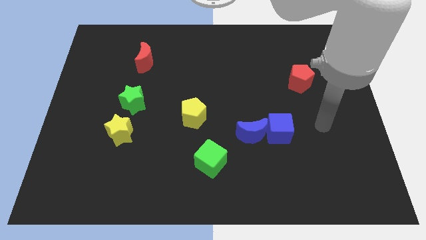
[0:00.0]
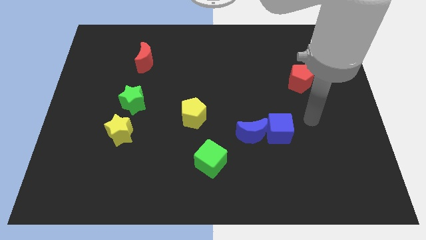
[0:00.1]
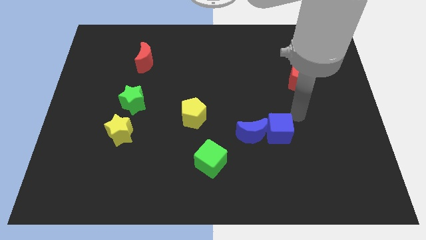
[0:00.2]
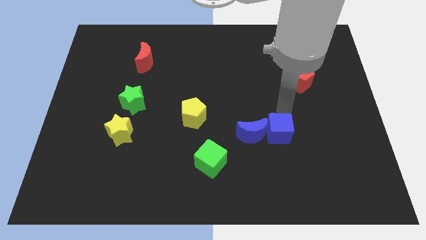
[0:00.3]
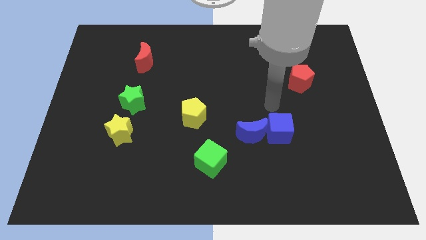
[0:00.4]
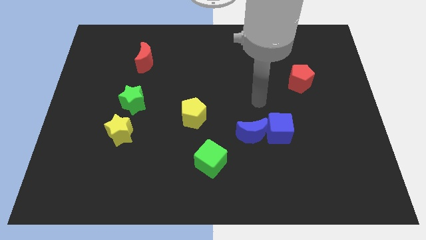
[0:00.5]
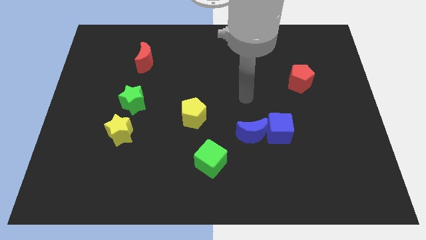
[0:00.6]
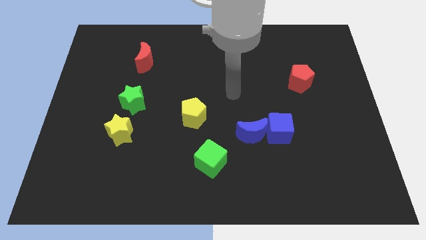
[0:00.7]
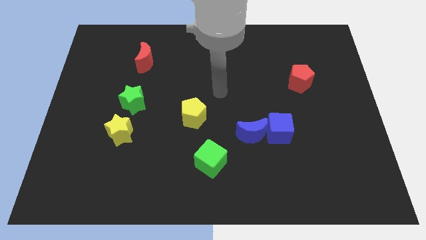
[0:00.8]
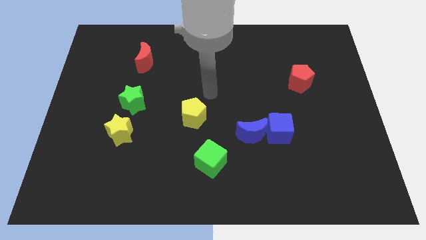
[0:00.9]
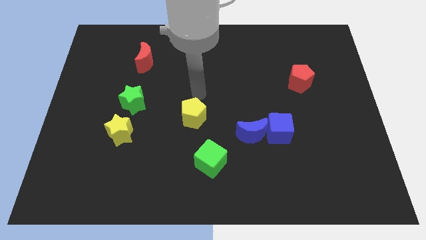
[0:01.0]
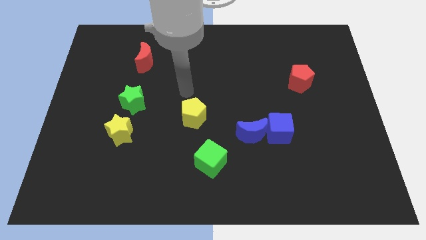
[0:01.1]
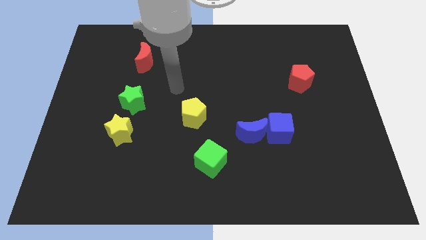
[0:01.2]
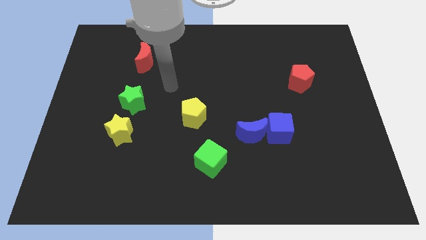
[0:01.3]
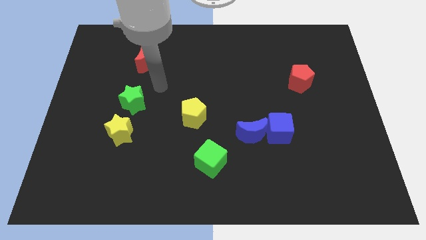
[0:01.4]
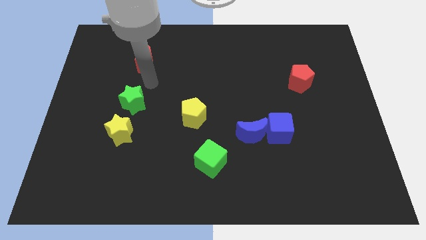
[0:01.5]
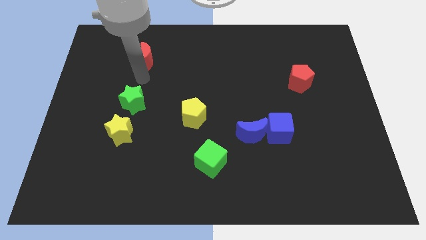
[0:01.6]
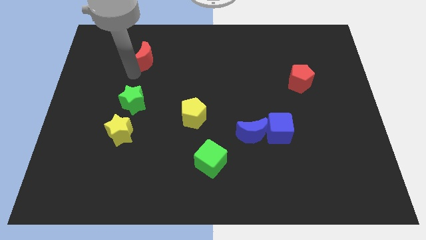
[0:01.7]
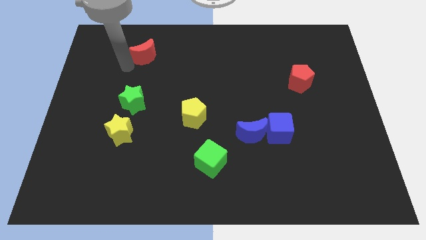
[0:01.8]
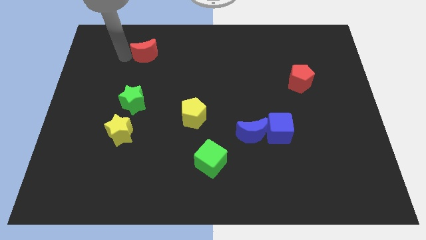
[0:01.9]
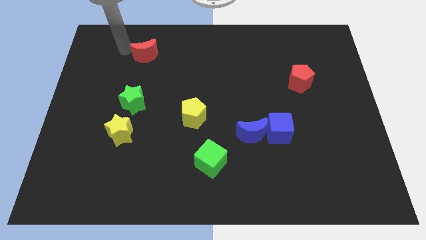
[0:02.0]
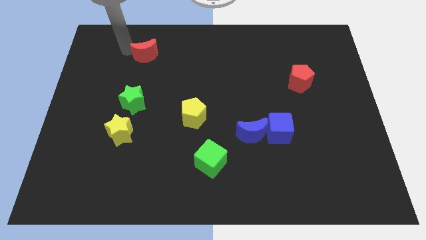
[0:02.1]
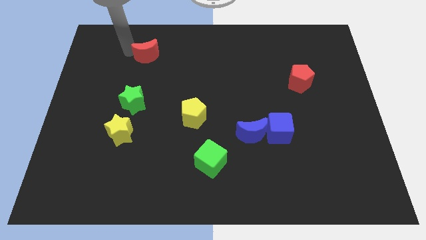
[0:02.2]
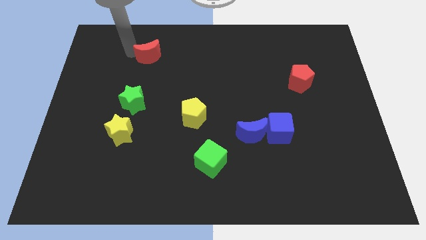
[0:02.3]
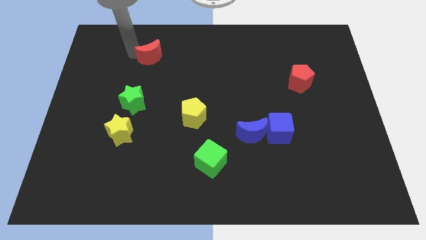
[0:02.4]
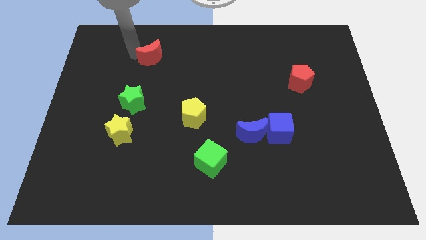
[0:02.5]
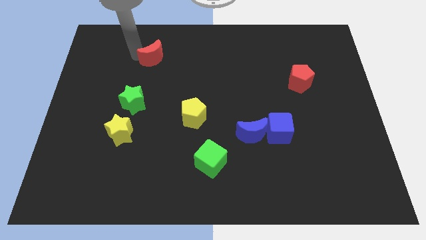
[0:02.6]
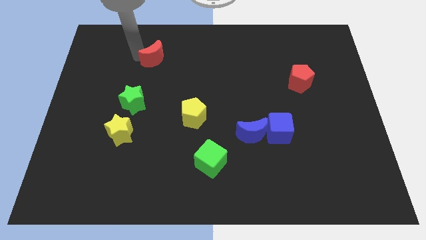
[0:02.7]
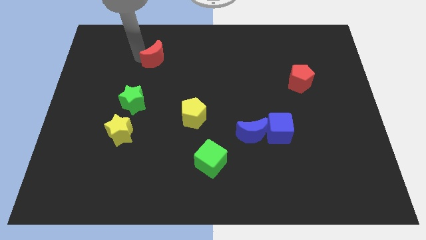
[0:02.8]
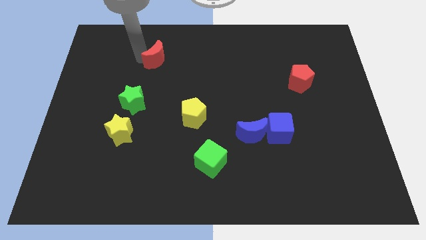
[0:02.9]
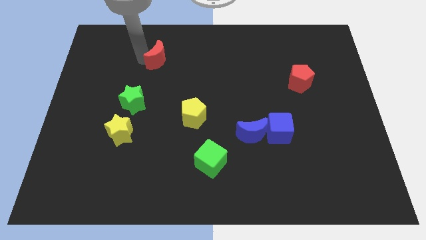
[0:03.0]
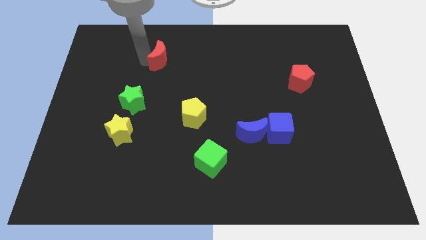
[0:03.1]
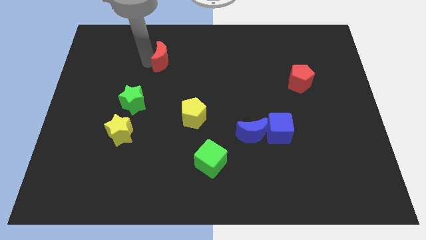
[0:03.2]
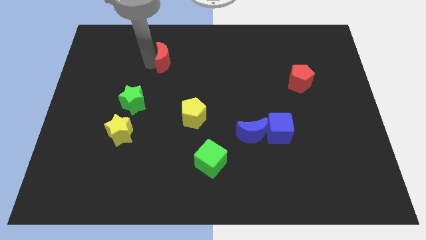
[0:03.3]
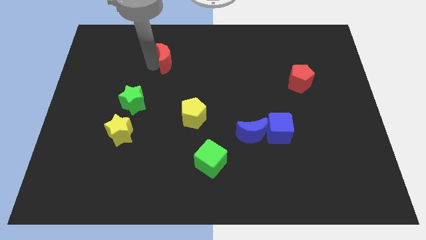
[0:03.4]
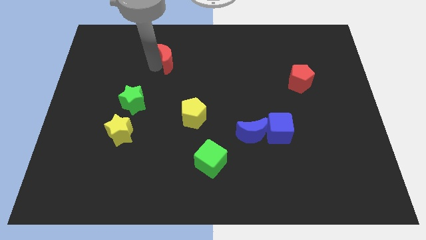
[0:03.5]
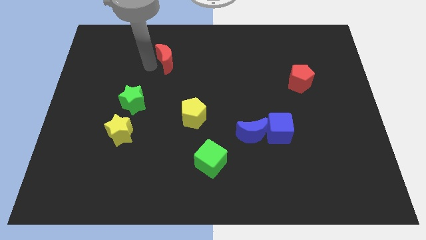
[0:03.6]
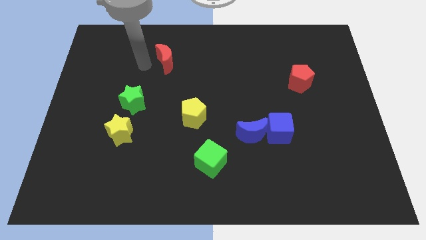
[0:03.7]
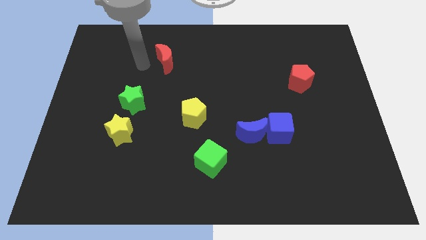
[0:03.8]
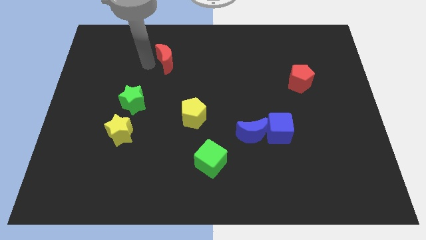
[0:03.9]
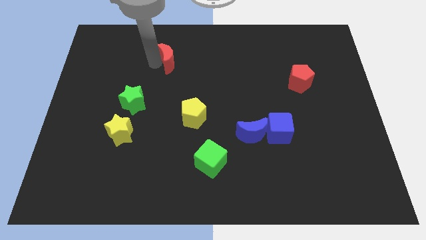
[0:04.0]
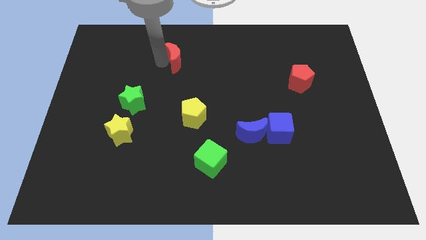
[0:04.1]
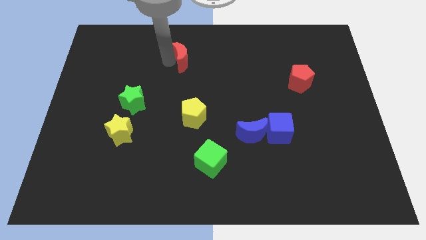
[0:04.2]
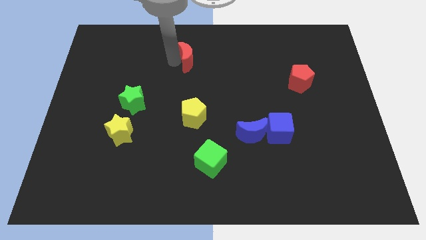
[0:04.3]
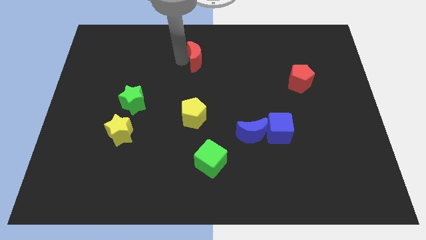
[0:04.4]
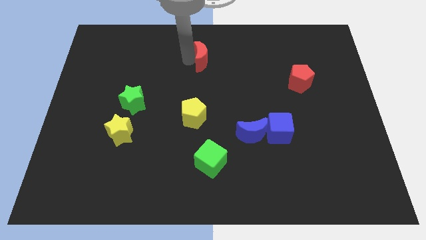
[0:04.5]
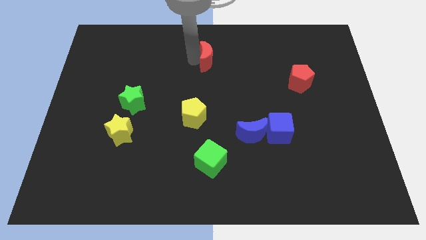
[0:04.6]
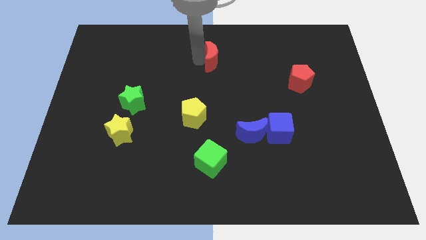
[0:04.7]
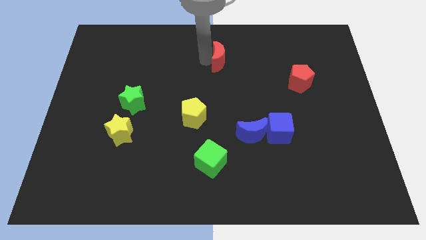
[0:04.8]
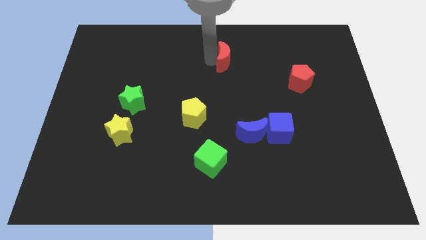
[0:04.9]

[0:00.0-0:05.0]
slide the red moon right

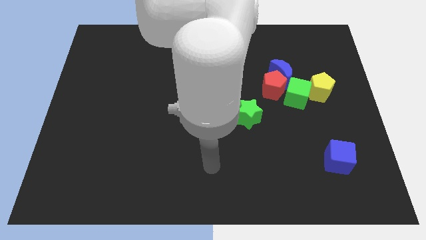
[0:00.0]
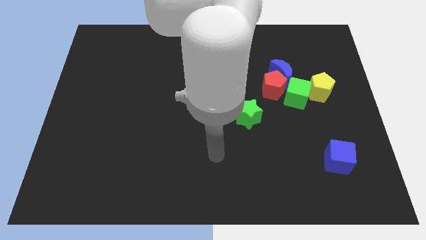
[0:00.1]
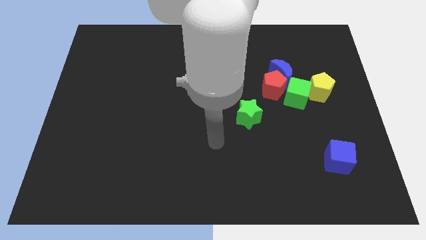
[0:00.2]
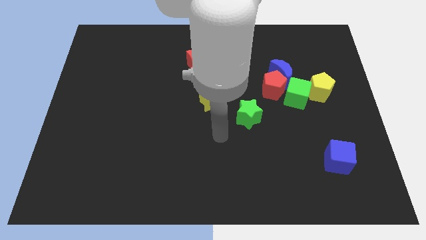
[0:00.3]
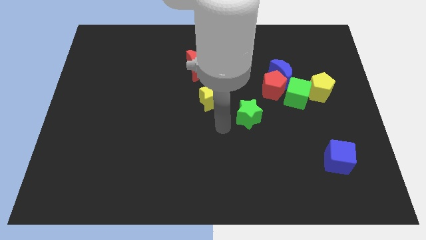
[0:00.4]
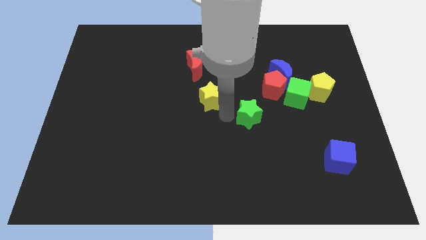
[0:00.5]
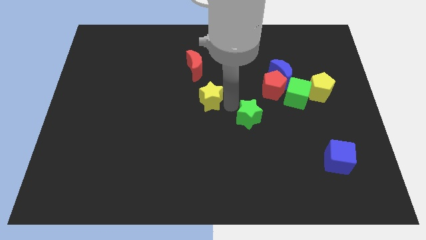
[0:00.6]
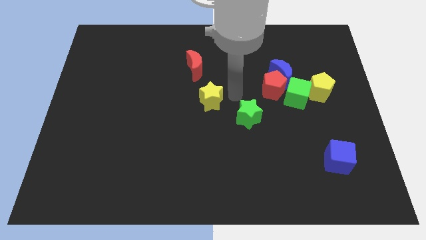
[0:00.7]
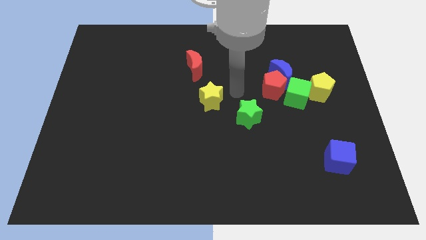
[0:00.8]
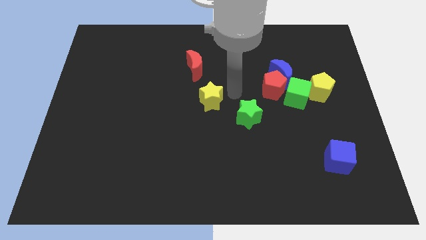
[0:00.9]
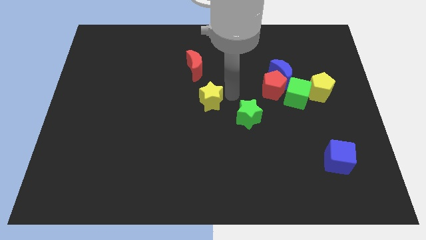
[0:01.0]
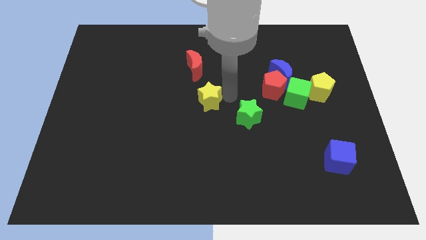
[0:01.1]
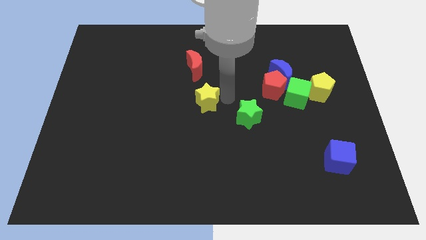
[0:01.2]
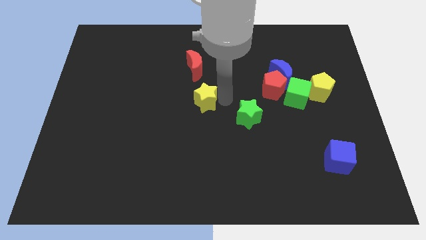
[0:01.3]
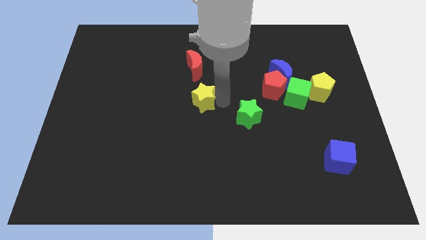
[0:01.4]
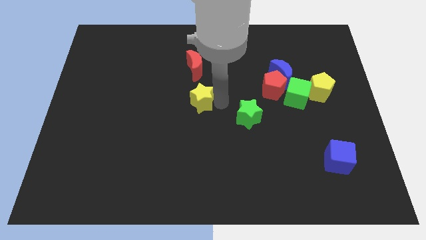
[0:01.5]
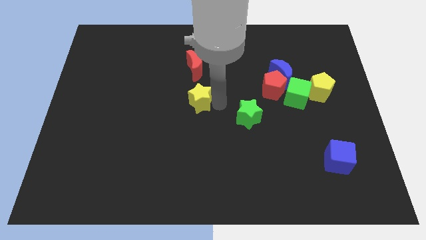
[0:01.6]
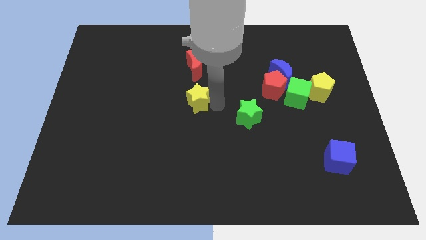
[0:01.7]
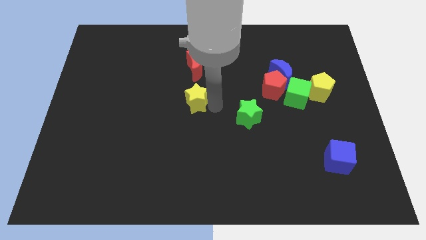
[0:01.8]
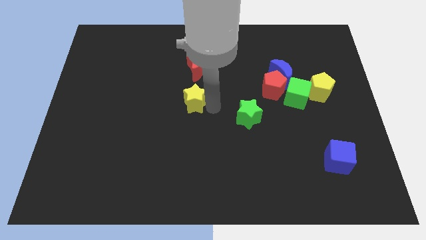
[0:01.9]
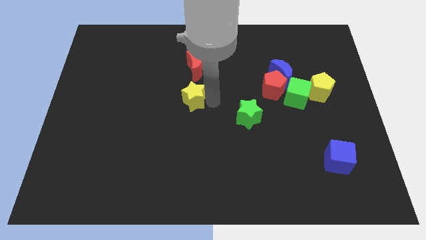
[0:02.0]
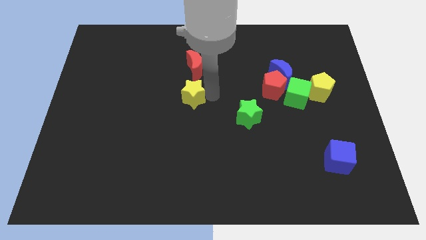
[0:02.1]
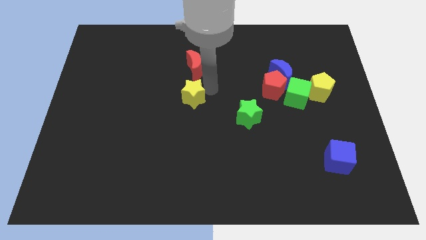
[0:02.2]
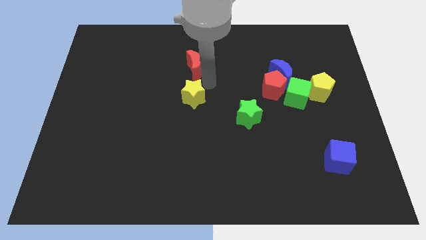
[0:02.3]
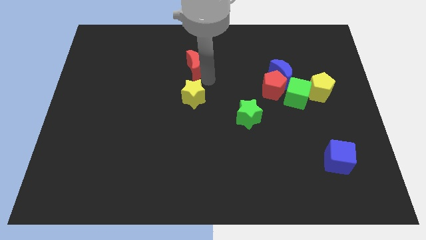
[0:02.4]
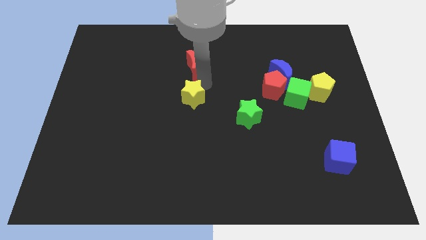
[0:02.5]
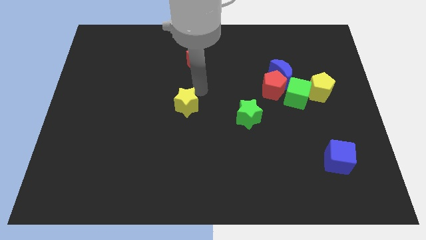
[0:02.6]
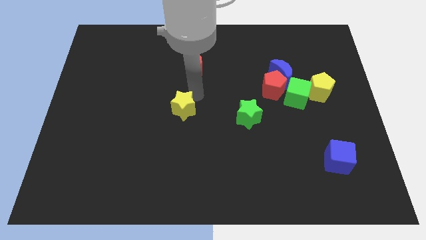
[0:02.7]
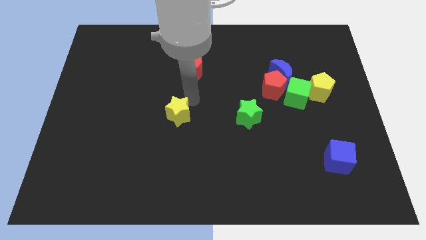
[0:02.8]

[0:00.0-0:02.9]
move the yellow star downwards and then left a bit
